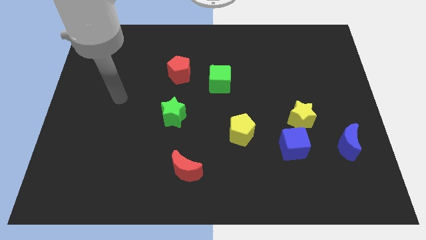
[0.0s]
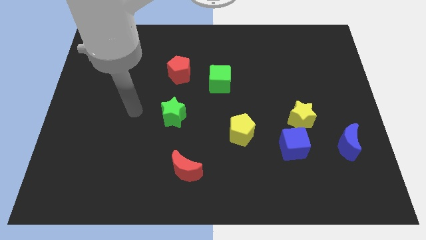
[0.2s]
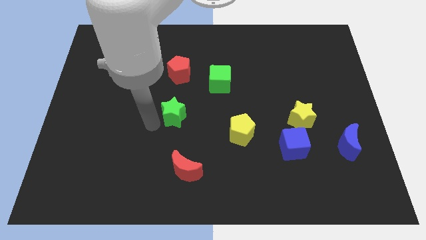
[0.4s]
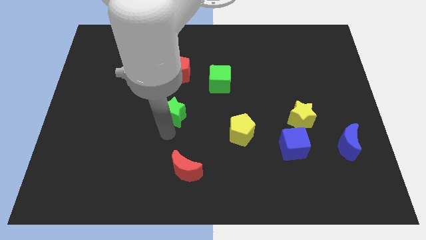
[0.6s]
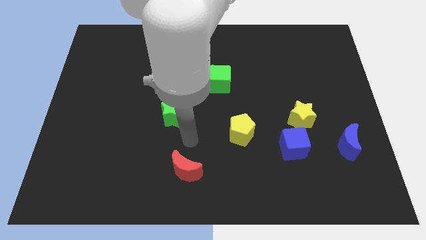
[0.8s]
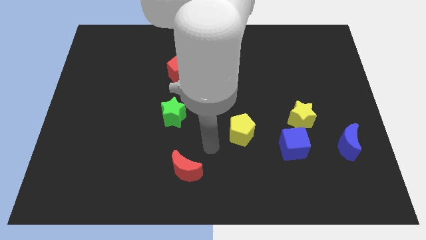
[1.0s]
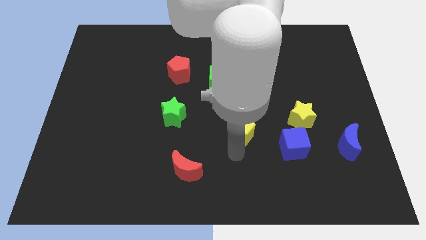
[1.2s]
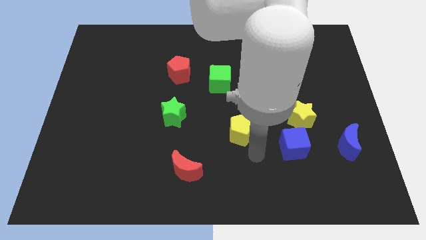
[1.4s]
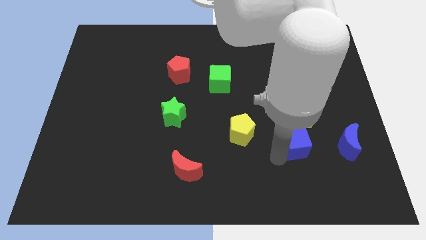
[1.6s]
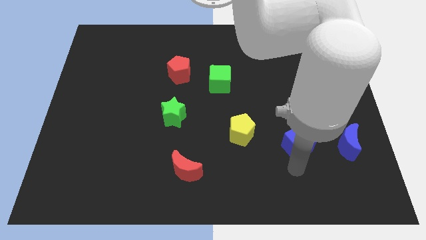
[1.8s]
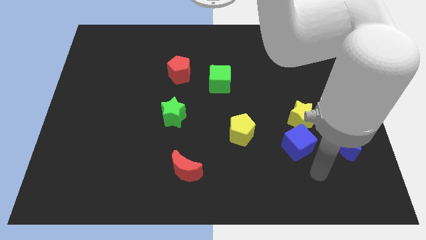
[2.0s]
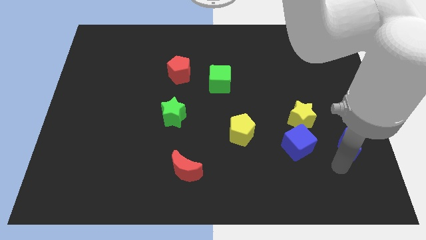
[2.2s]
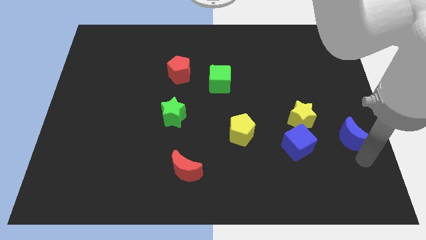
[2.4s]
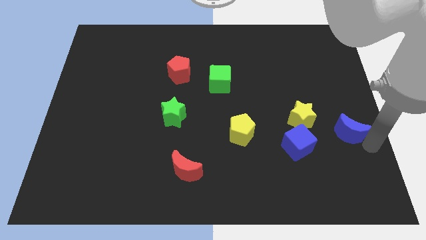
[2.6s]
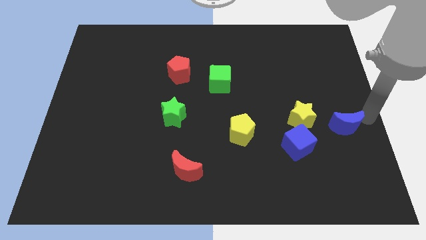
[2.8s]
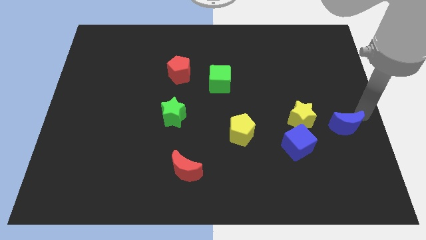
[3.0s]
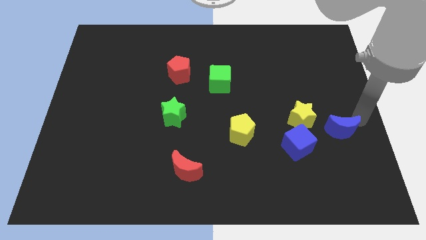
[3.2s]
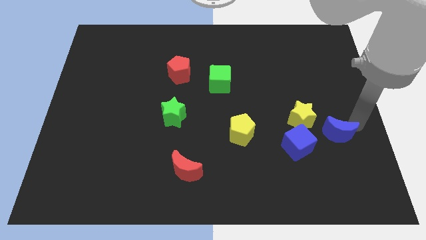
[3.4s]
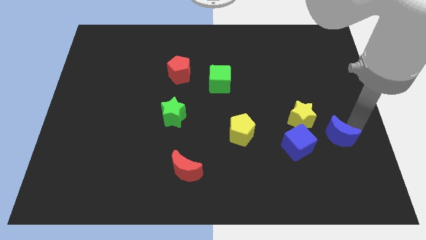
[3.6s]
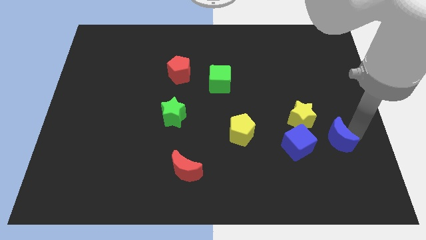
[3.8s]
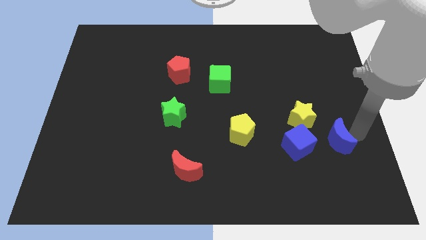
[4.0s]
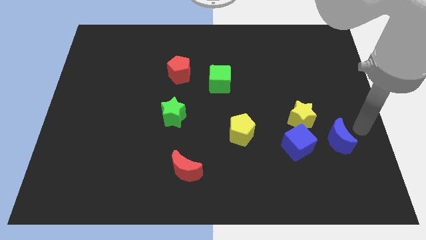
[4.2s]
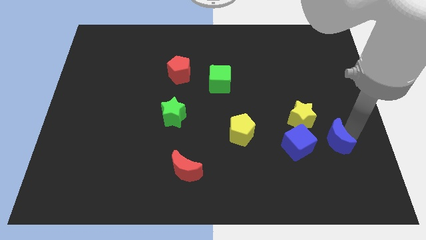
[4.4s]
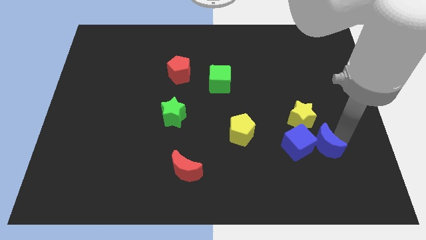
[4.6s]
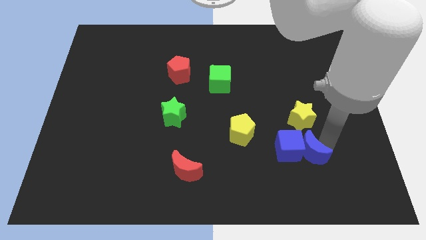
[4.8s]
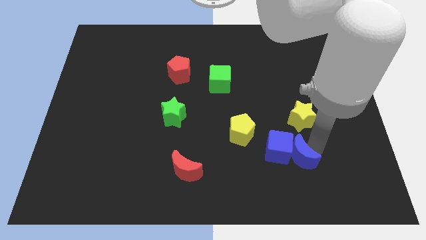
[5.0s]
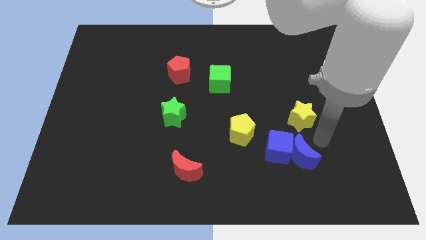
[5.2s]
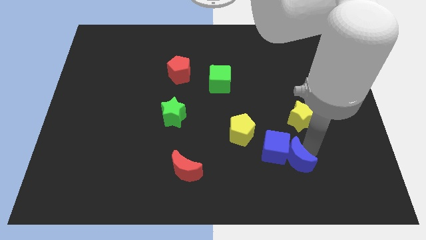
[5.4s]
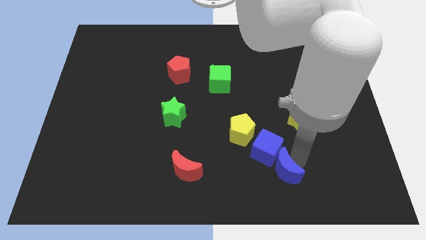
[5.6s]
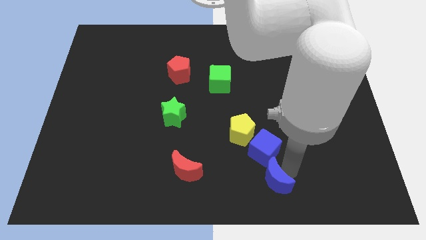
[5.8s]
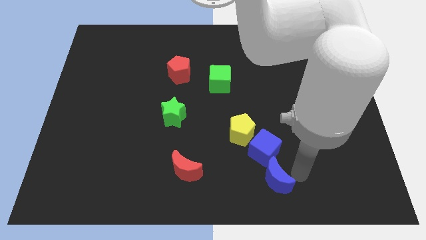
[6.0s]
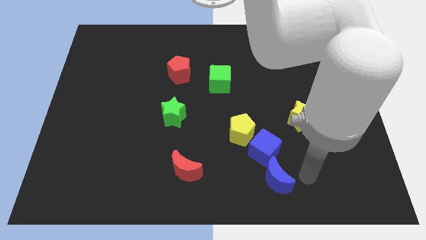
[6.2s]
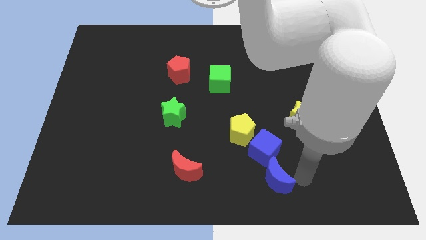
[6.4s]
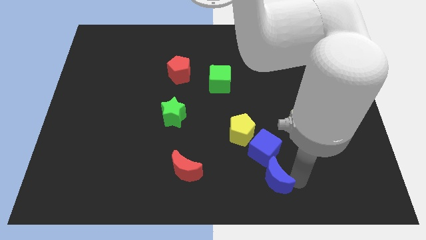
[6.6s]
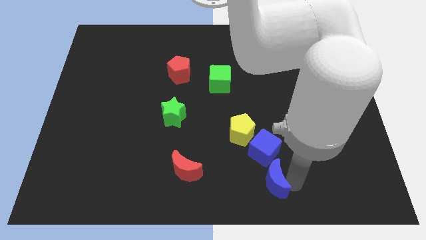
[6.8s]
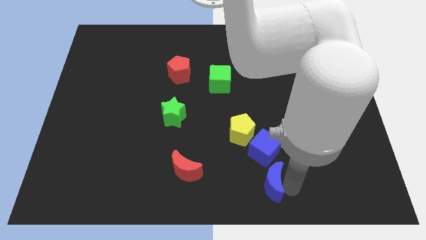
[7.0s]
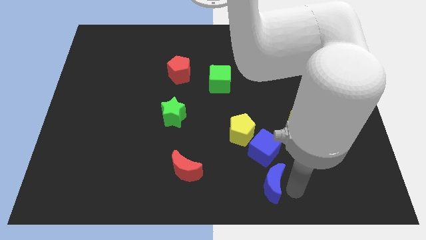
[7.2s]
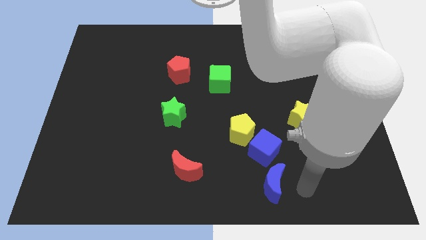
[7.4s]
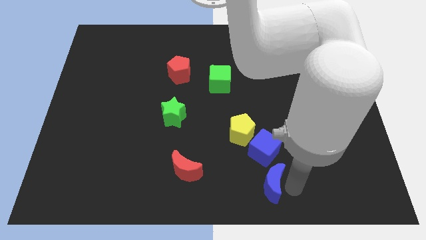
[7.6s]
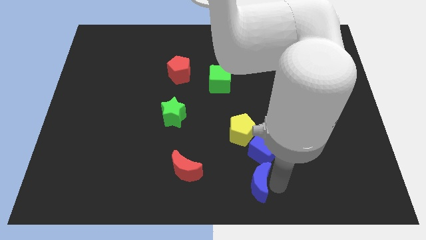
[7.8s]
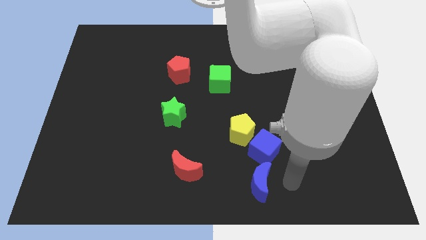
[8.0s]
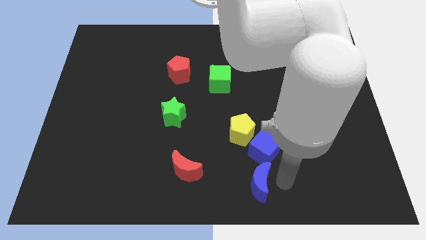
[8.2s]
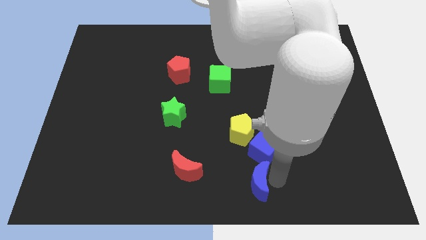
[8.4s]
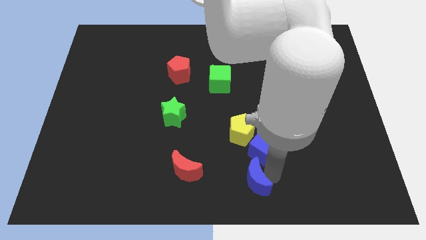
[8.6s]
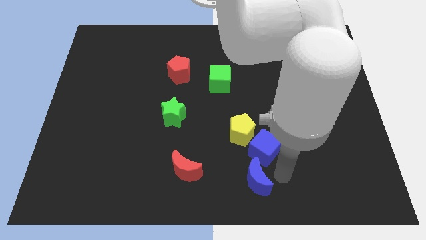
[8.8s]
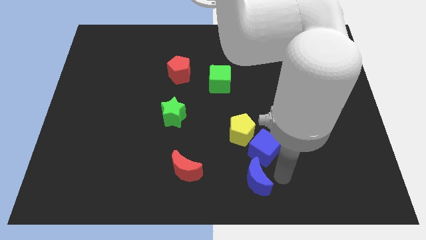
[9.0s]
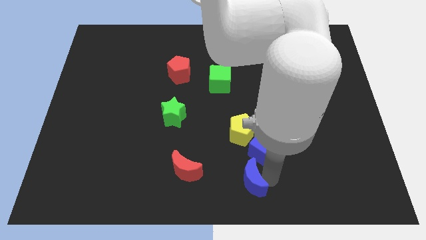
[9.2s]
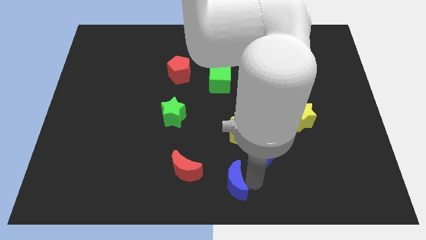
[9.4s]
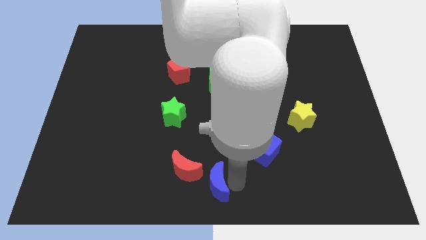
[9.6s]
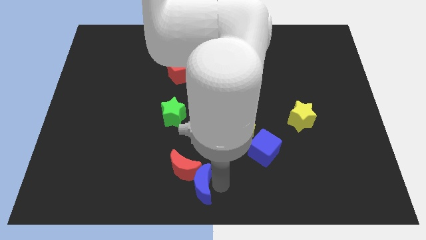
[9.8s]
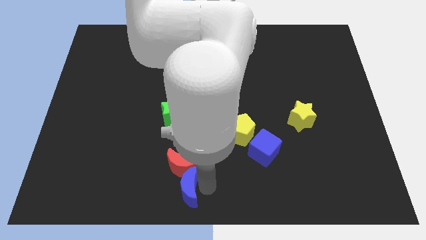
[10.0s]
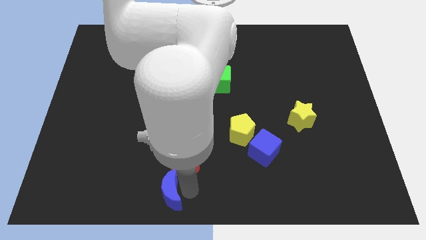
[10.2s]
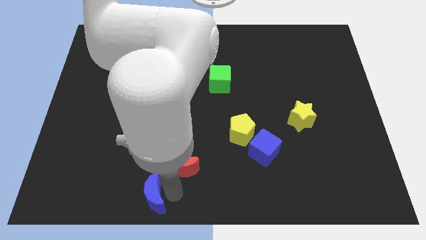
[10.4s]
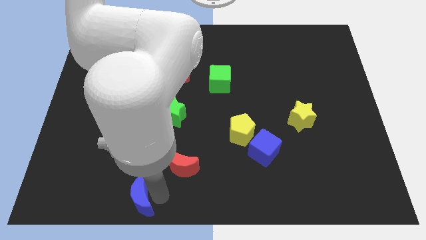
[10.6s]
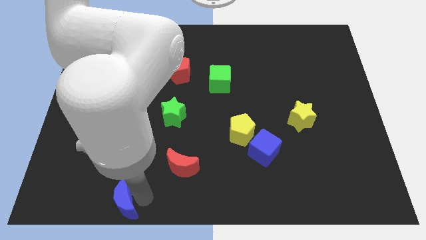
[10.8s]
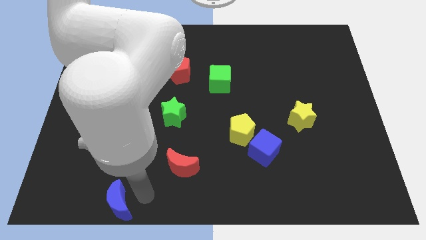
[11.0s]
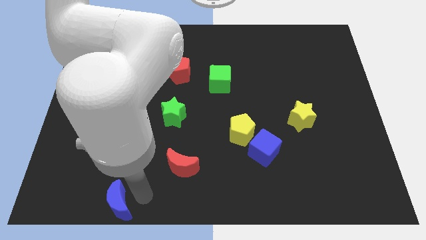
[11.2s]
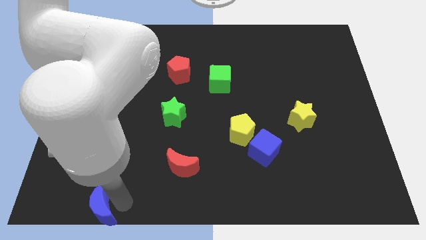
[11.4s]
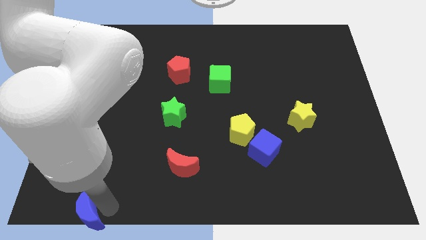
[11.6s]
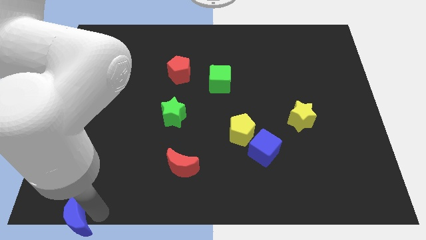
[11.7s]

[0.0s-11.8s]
push the blue moon to the bottom left corner

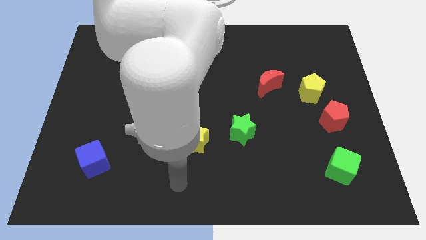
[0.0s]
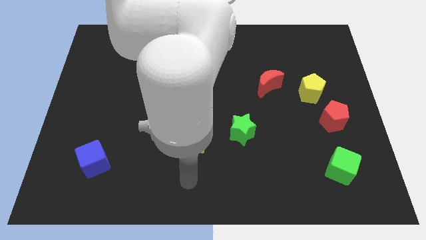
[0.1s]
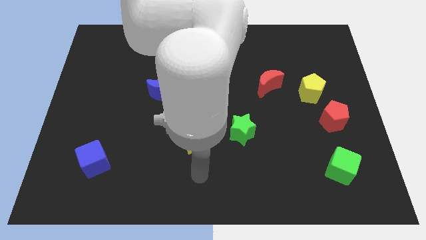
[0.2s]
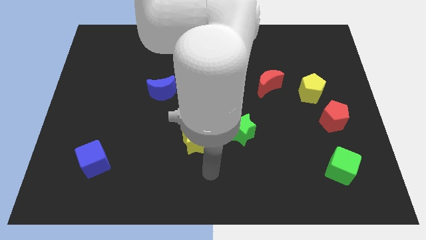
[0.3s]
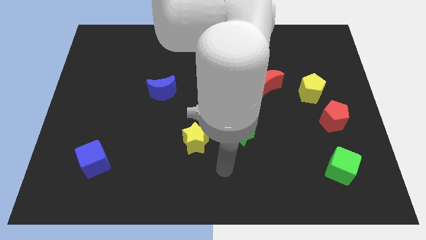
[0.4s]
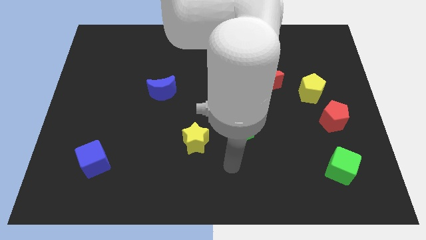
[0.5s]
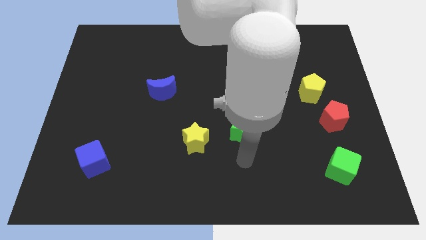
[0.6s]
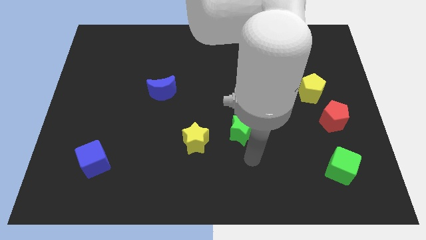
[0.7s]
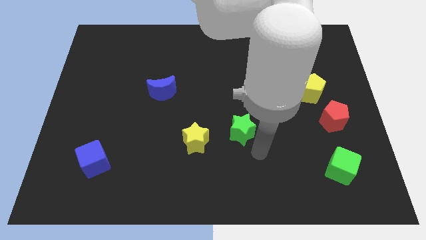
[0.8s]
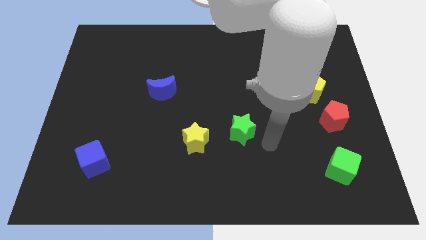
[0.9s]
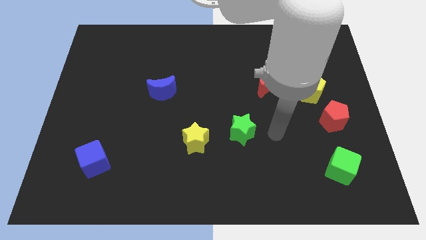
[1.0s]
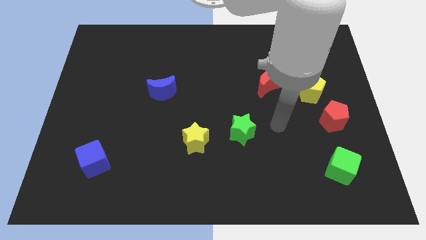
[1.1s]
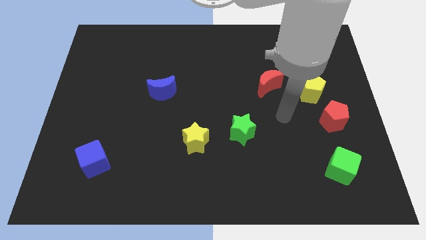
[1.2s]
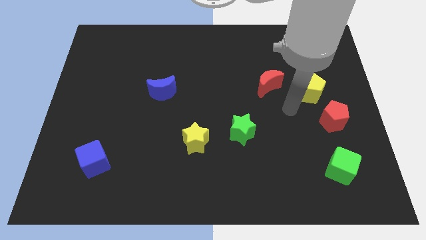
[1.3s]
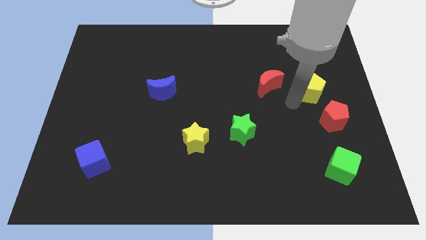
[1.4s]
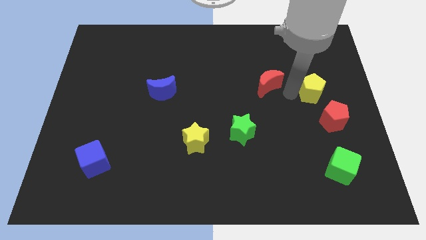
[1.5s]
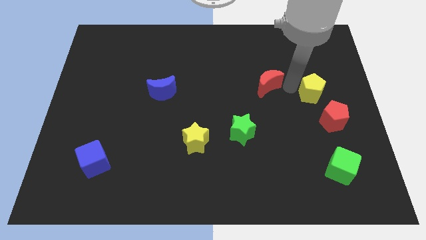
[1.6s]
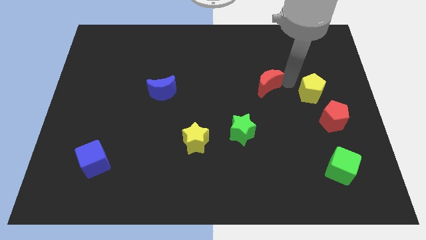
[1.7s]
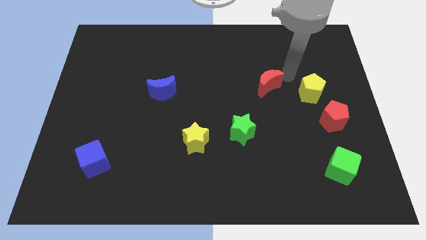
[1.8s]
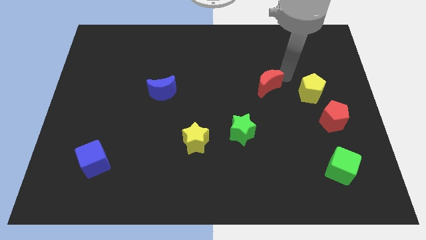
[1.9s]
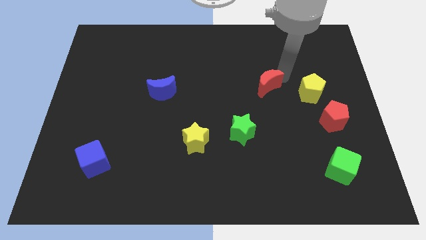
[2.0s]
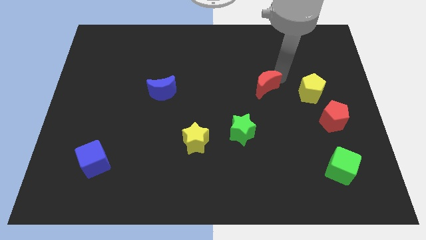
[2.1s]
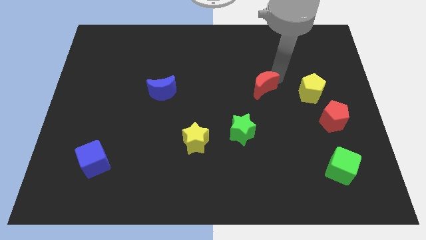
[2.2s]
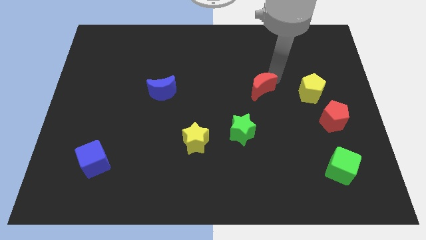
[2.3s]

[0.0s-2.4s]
push the red moon to the center of the board
